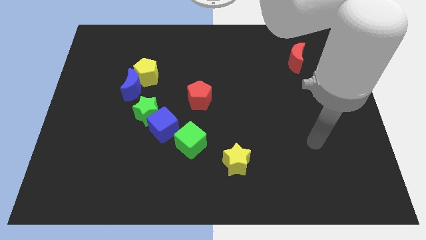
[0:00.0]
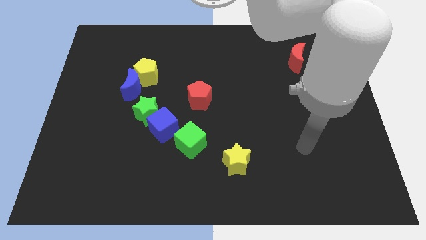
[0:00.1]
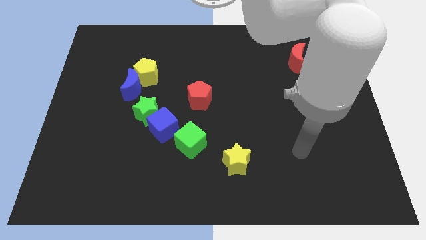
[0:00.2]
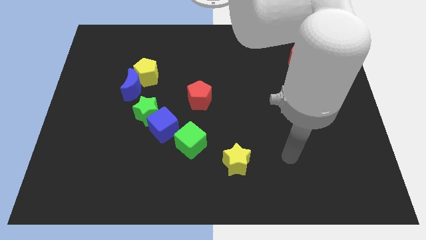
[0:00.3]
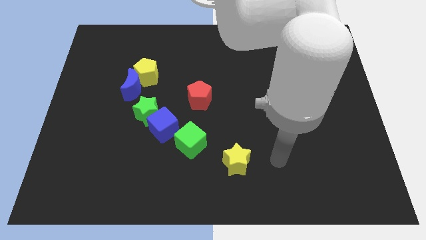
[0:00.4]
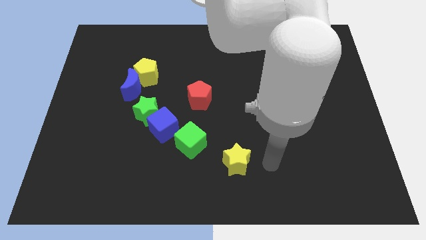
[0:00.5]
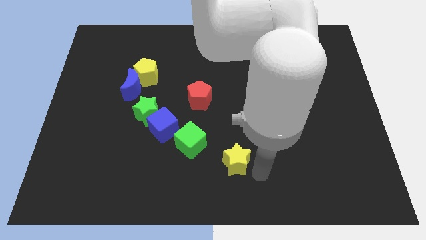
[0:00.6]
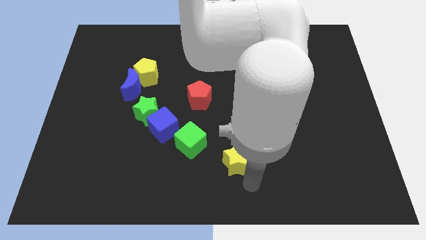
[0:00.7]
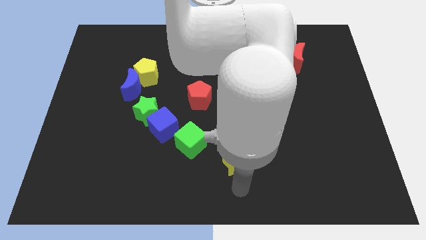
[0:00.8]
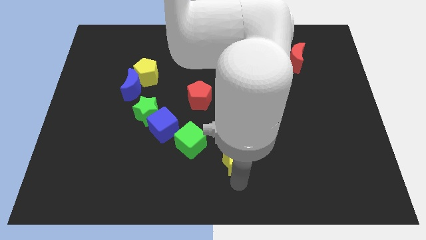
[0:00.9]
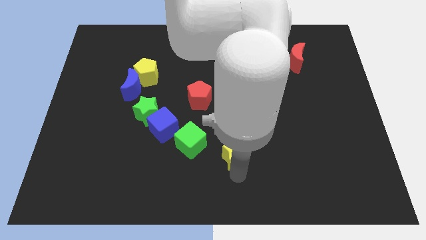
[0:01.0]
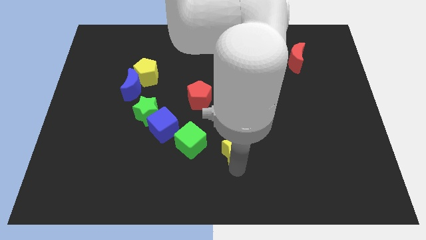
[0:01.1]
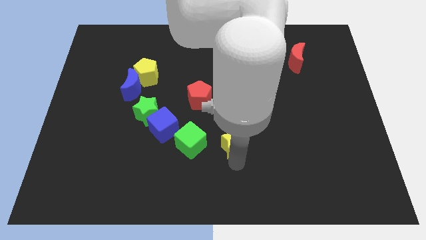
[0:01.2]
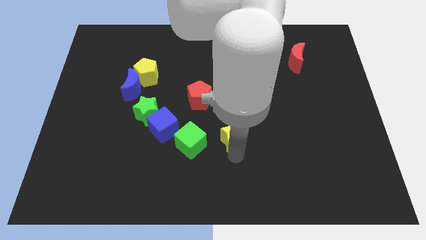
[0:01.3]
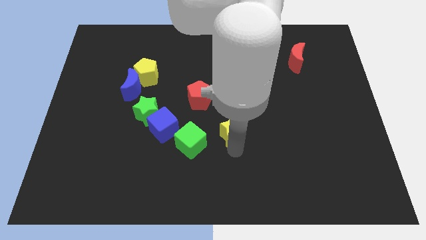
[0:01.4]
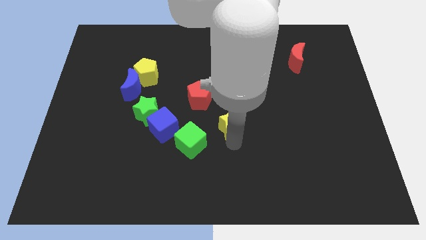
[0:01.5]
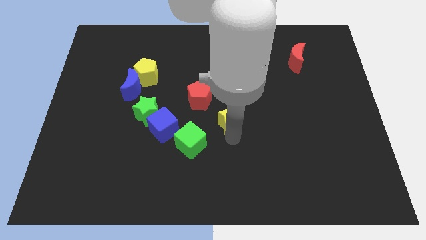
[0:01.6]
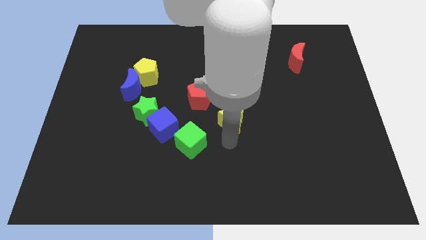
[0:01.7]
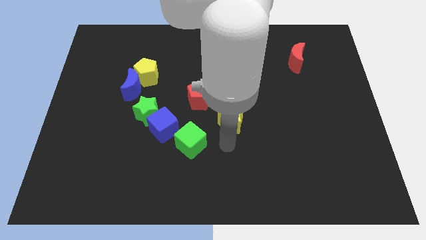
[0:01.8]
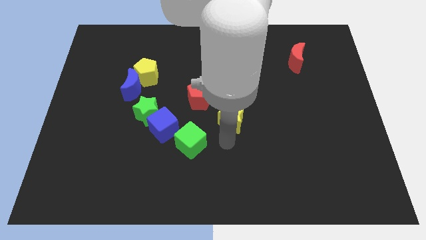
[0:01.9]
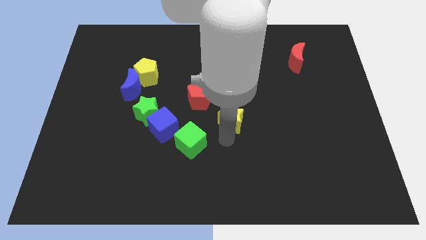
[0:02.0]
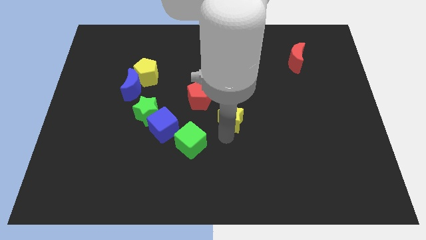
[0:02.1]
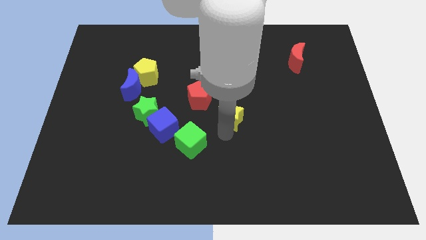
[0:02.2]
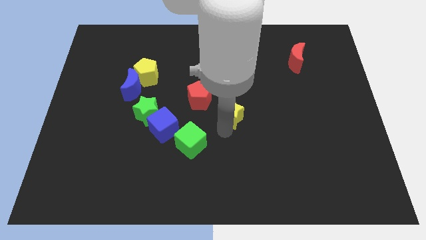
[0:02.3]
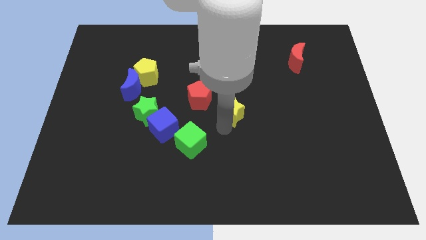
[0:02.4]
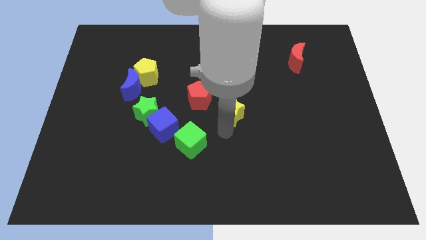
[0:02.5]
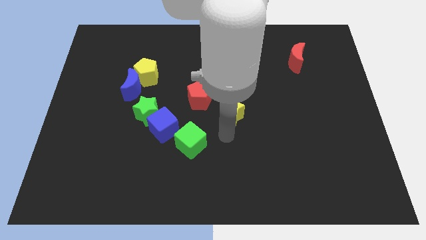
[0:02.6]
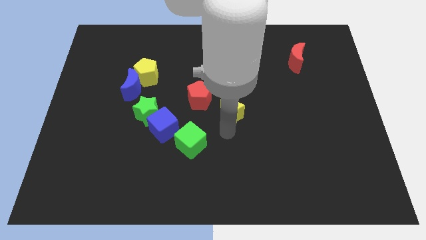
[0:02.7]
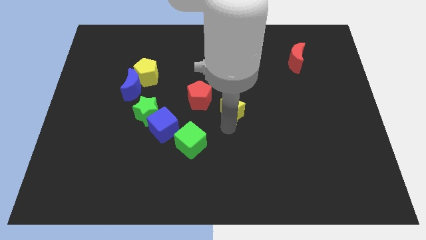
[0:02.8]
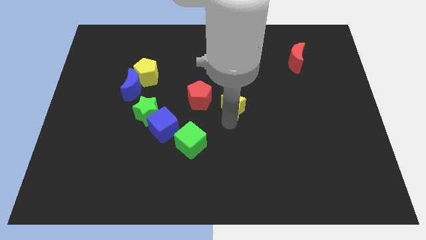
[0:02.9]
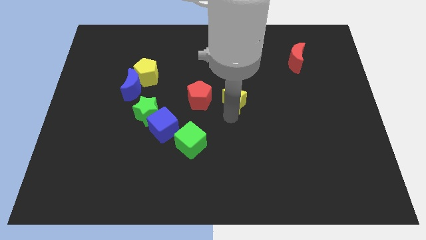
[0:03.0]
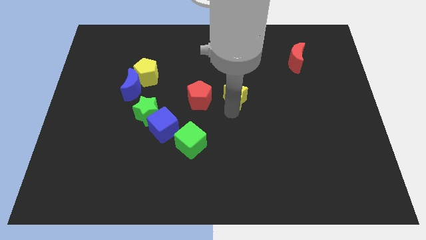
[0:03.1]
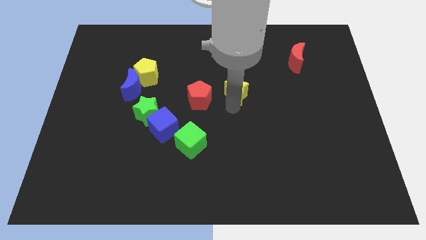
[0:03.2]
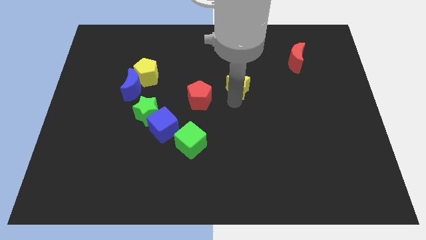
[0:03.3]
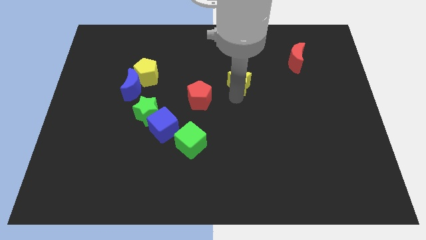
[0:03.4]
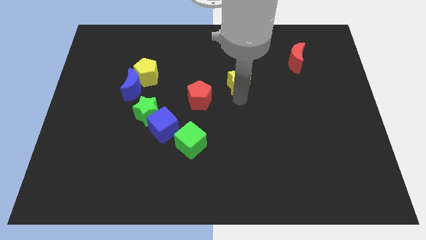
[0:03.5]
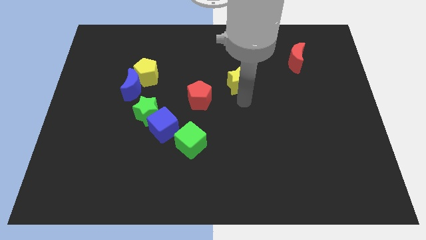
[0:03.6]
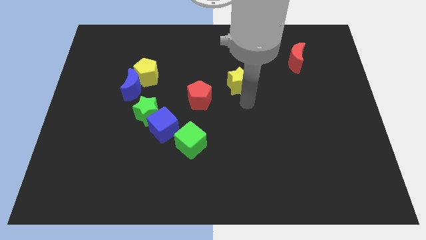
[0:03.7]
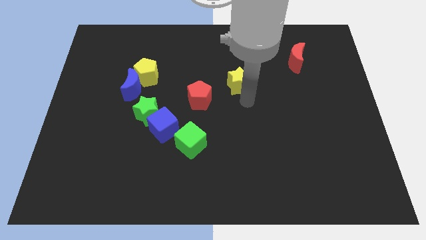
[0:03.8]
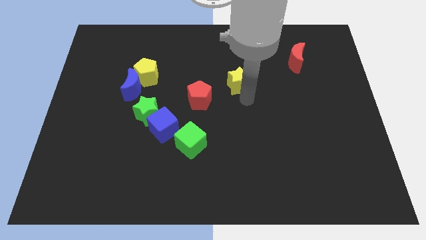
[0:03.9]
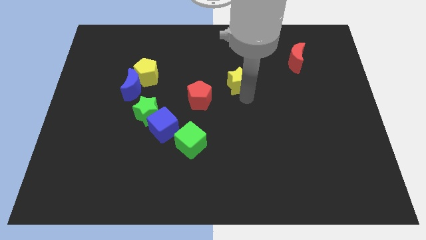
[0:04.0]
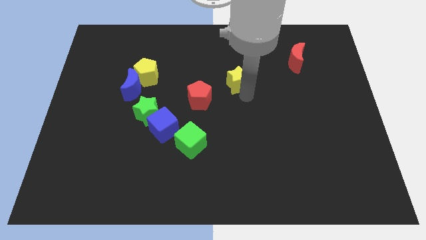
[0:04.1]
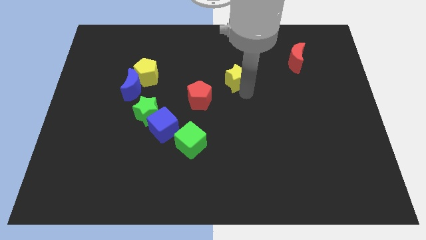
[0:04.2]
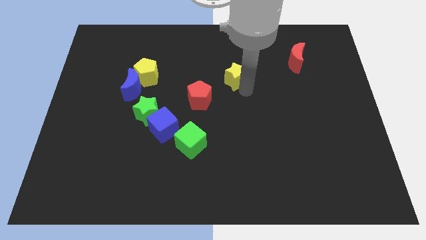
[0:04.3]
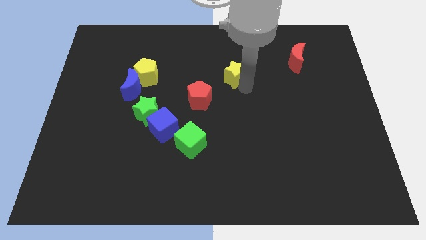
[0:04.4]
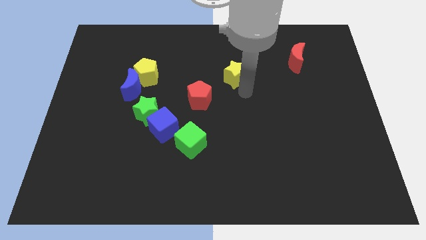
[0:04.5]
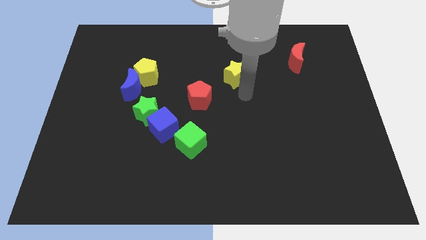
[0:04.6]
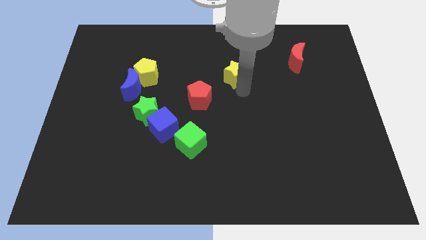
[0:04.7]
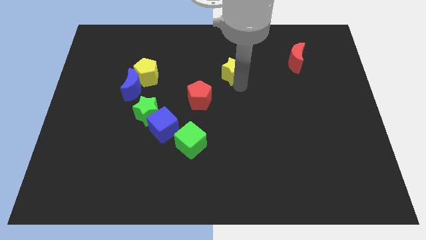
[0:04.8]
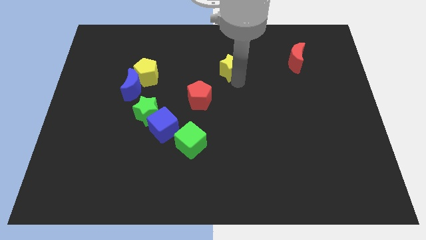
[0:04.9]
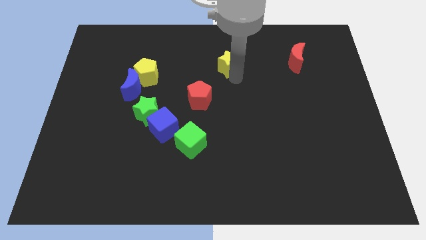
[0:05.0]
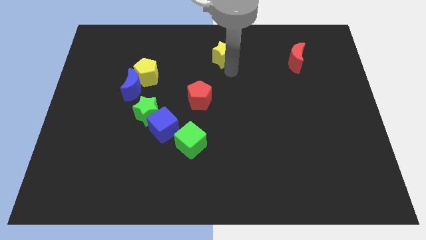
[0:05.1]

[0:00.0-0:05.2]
push the yellow star to the top side
